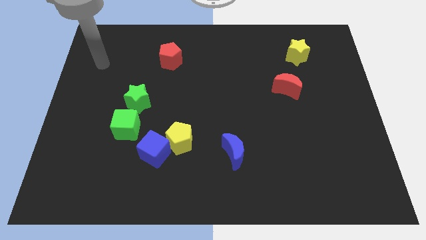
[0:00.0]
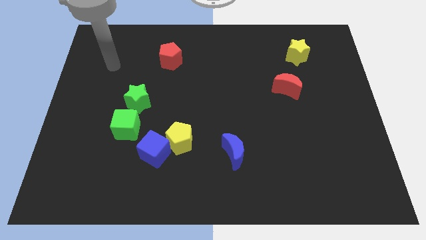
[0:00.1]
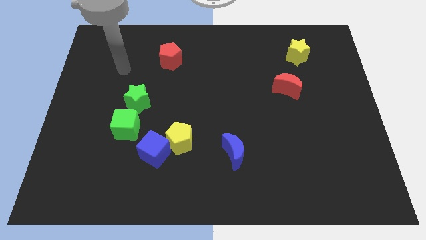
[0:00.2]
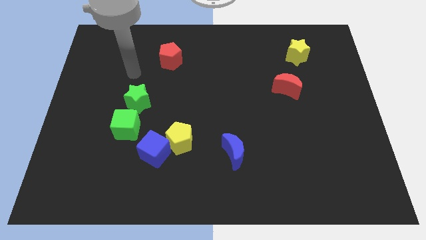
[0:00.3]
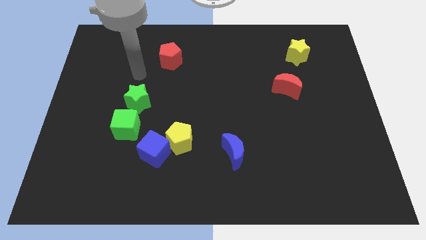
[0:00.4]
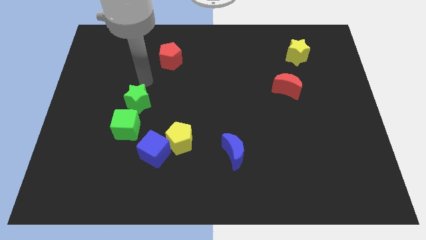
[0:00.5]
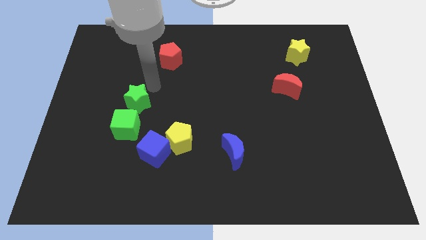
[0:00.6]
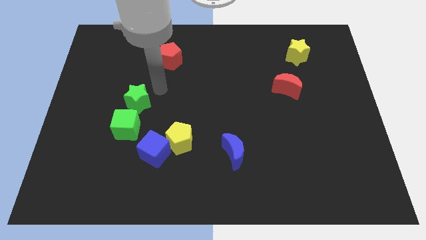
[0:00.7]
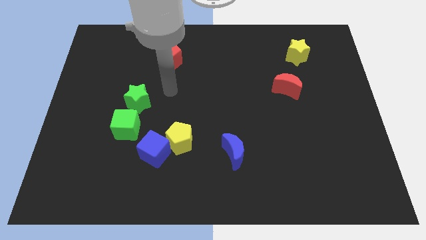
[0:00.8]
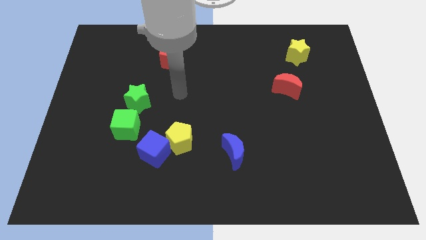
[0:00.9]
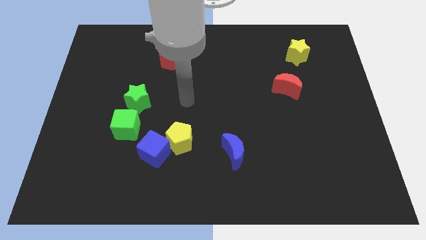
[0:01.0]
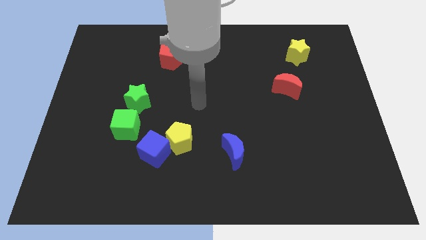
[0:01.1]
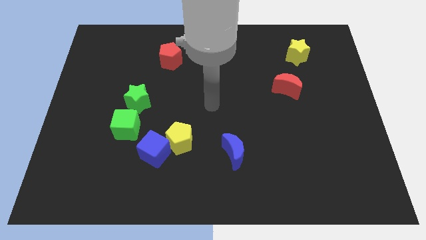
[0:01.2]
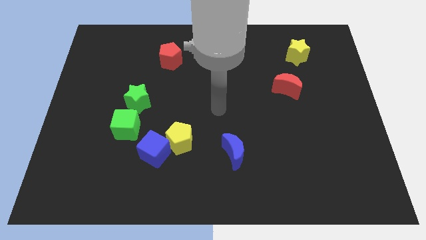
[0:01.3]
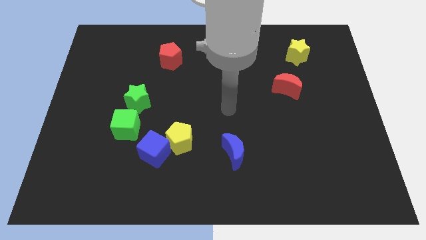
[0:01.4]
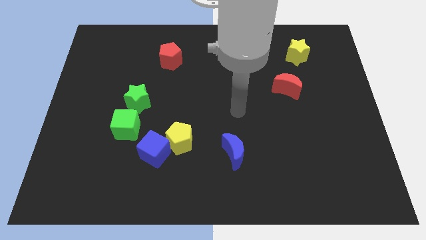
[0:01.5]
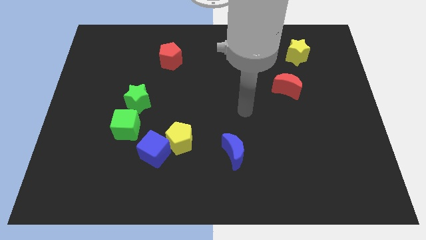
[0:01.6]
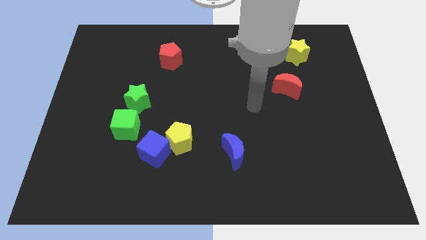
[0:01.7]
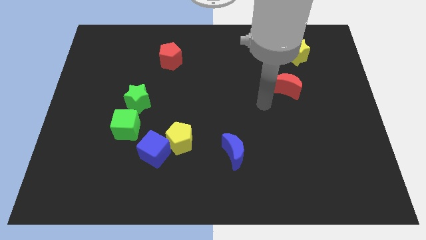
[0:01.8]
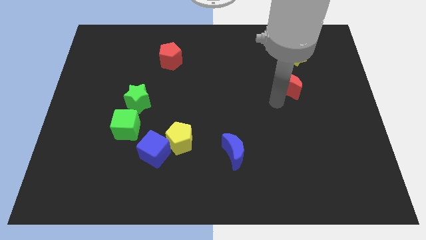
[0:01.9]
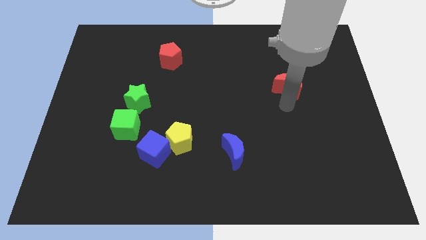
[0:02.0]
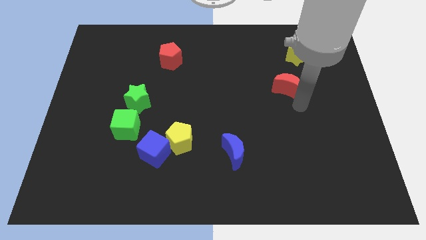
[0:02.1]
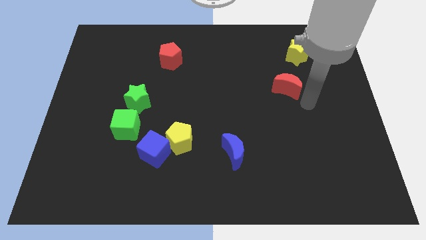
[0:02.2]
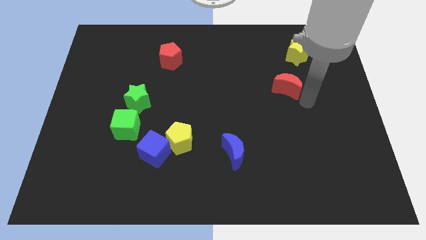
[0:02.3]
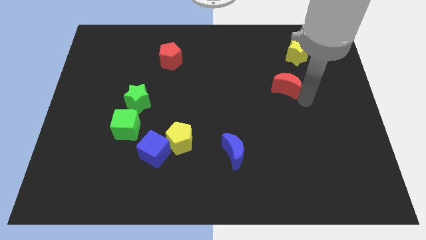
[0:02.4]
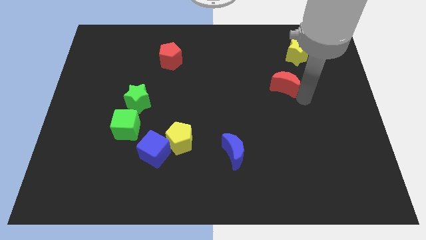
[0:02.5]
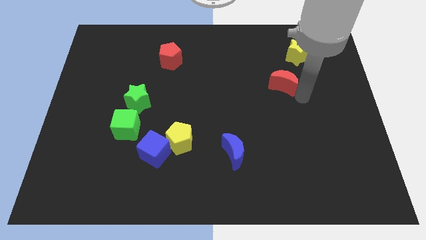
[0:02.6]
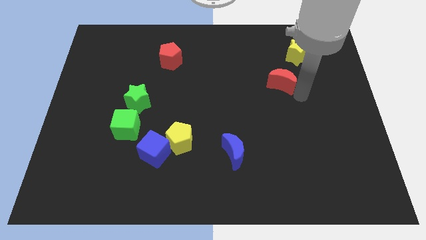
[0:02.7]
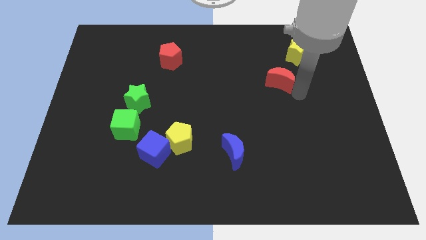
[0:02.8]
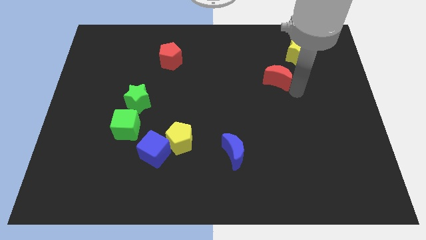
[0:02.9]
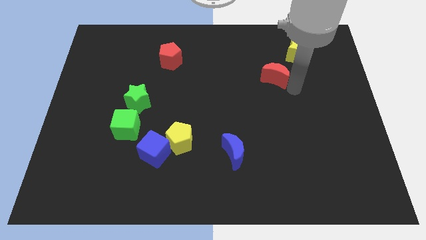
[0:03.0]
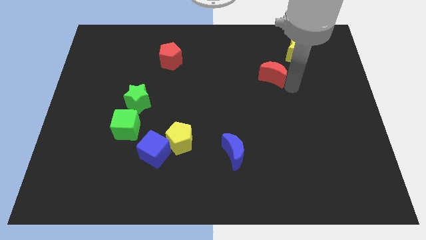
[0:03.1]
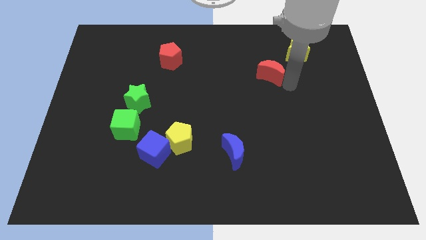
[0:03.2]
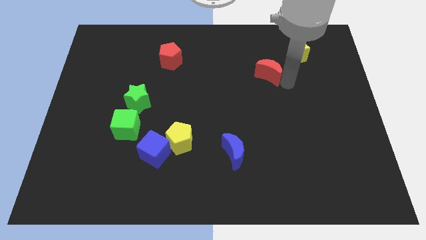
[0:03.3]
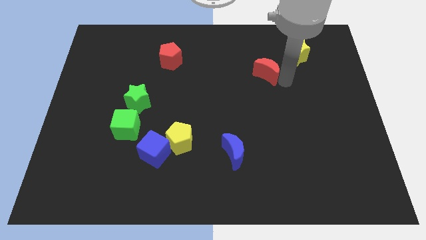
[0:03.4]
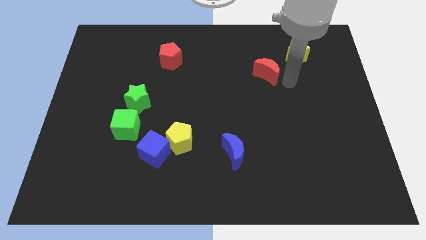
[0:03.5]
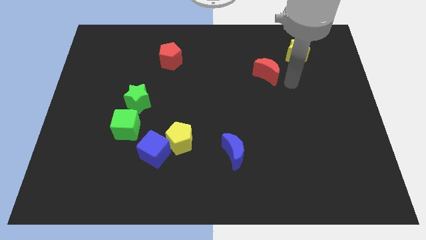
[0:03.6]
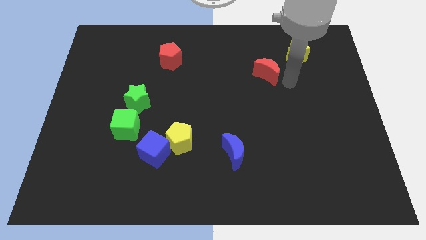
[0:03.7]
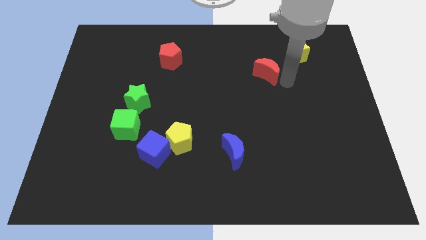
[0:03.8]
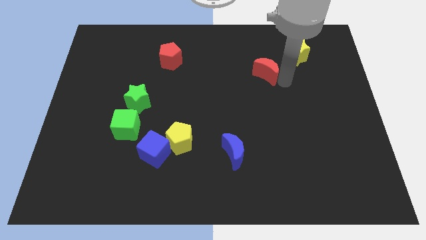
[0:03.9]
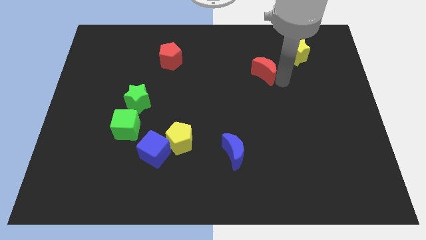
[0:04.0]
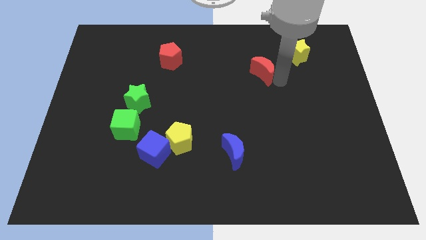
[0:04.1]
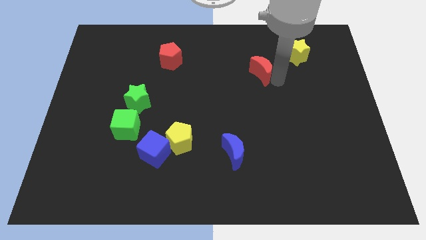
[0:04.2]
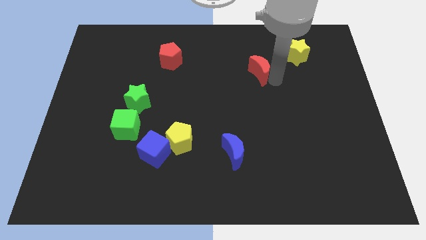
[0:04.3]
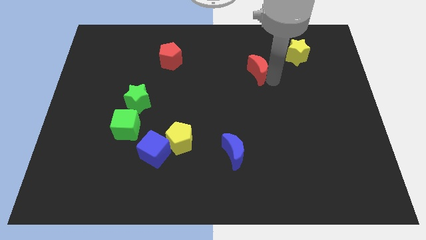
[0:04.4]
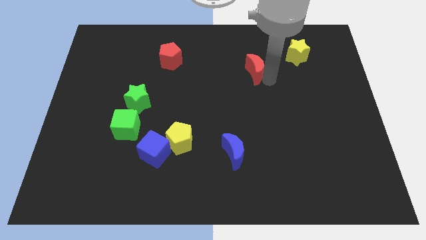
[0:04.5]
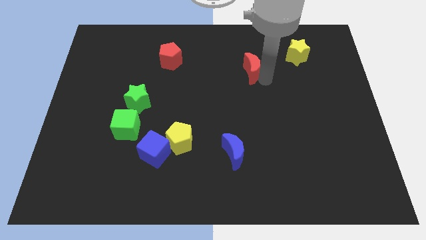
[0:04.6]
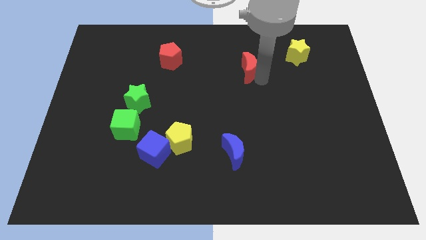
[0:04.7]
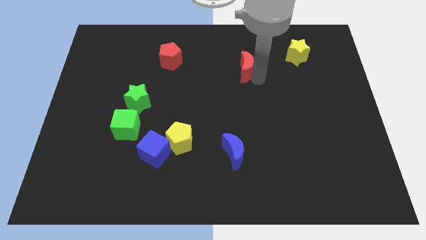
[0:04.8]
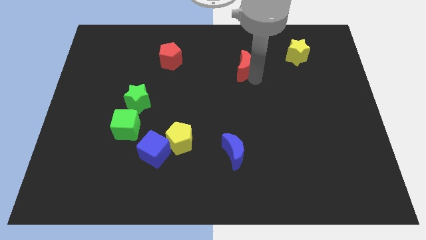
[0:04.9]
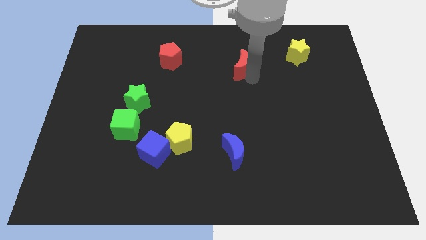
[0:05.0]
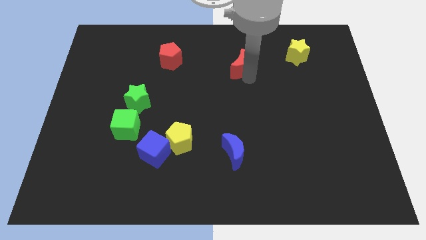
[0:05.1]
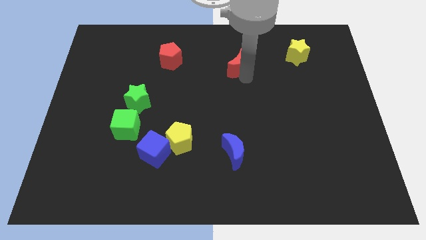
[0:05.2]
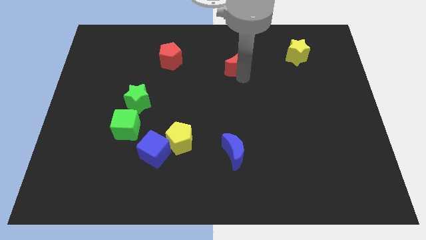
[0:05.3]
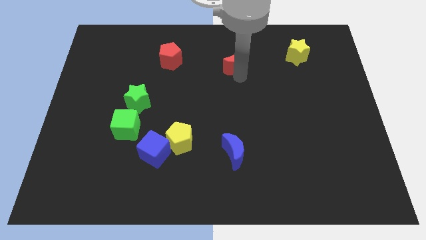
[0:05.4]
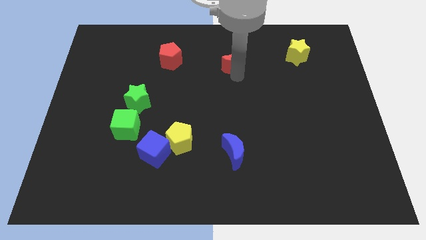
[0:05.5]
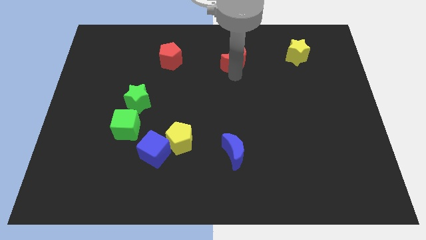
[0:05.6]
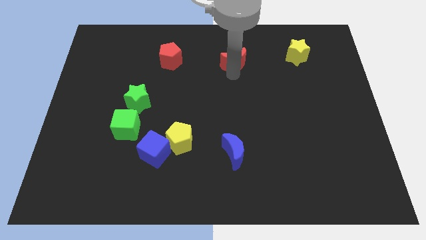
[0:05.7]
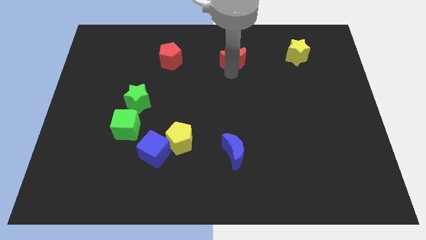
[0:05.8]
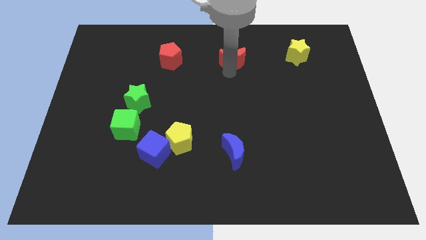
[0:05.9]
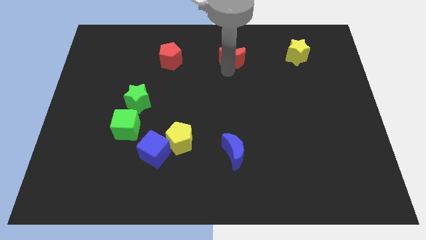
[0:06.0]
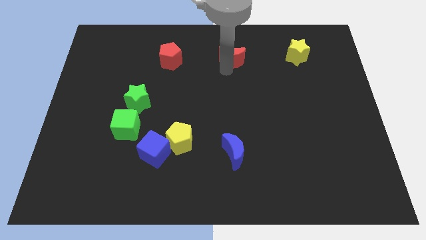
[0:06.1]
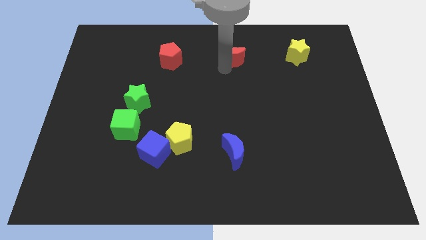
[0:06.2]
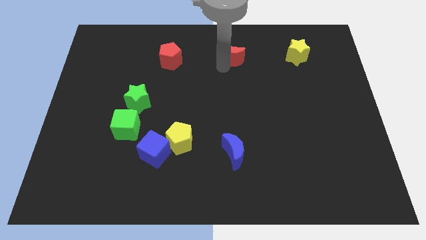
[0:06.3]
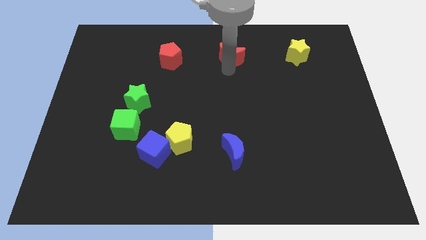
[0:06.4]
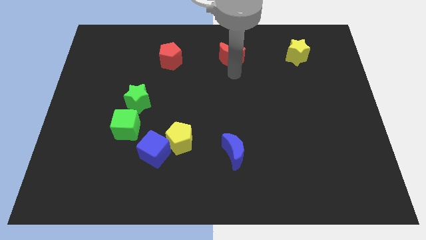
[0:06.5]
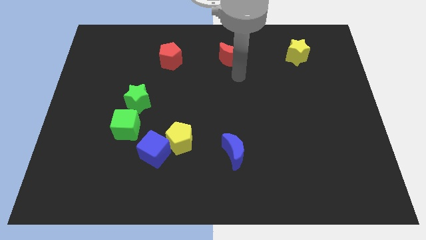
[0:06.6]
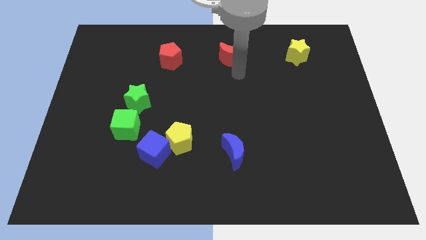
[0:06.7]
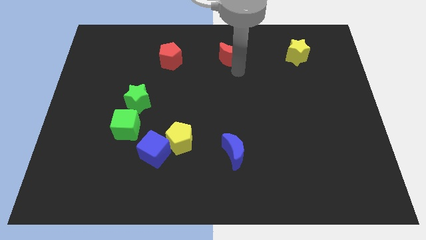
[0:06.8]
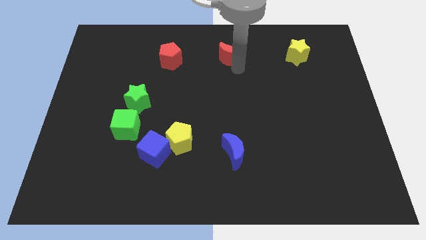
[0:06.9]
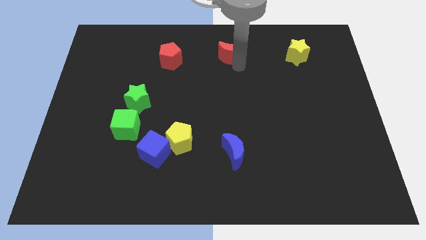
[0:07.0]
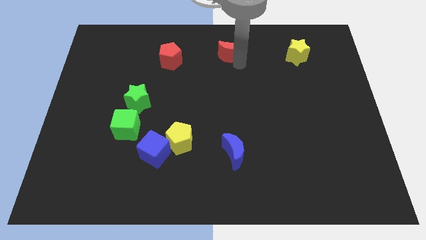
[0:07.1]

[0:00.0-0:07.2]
put the red moon to the top

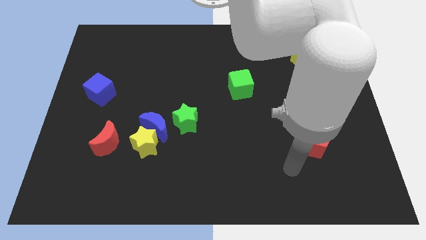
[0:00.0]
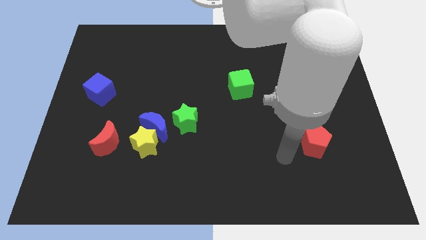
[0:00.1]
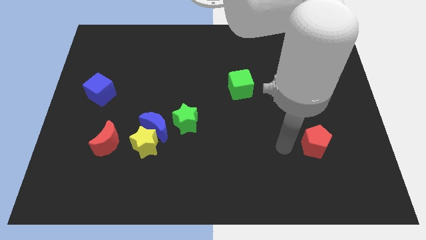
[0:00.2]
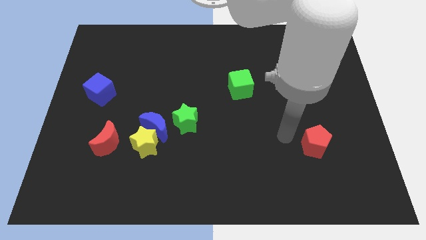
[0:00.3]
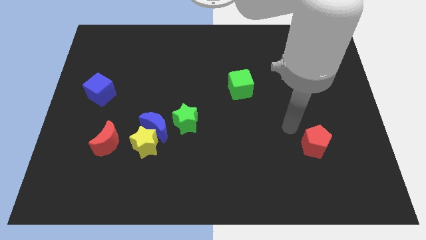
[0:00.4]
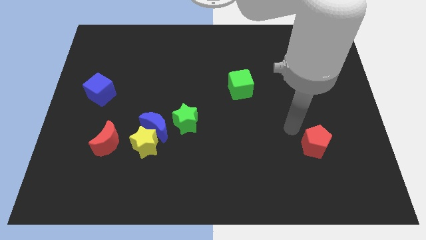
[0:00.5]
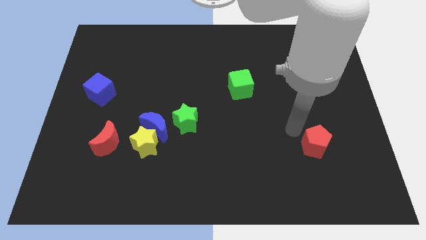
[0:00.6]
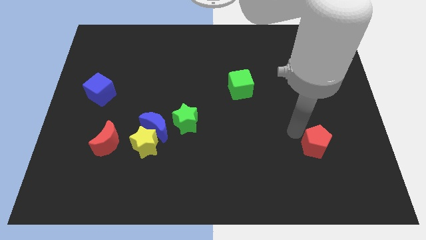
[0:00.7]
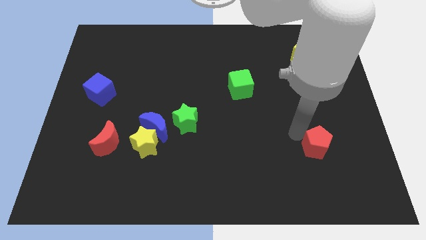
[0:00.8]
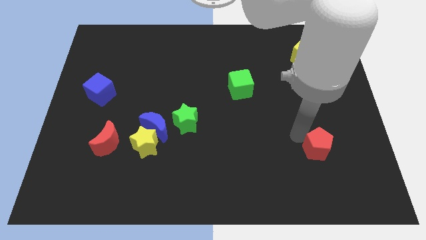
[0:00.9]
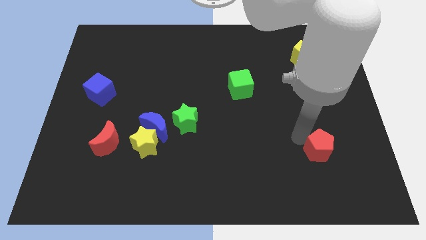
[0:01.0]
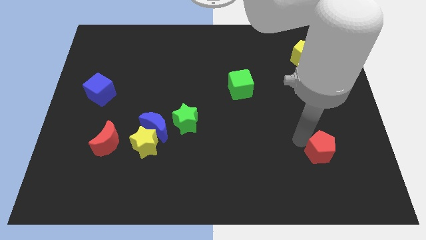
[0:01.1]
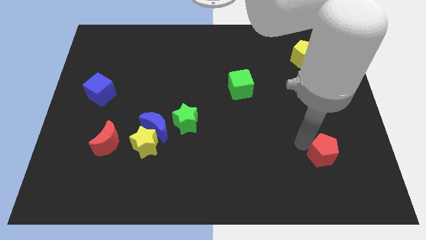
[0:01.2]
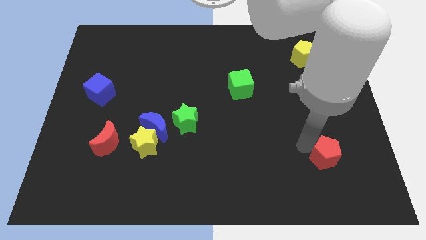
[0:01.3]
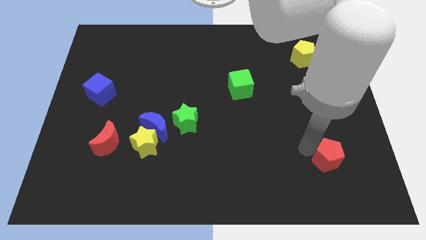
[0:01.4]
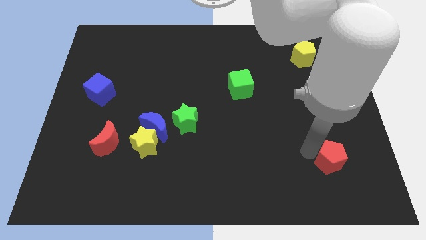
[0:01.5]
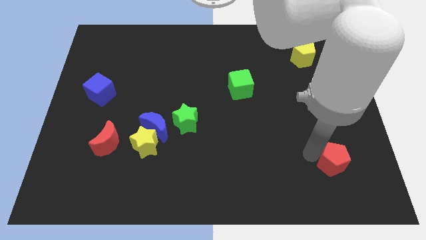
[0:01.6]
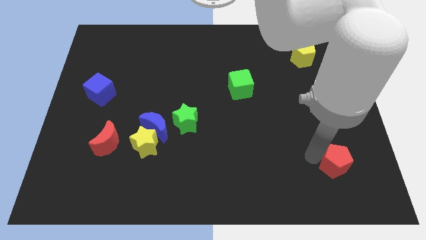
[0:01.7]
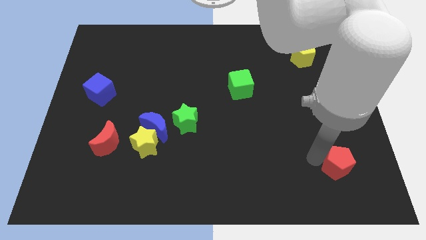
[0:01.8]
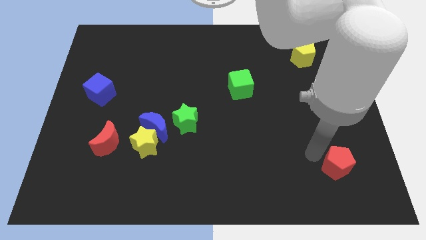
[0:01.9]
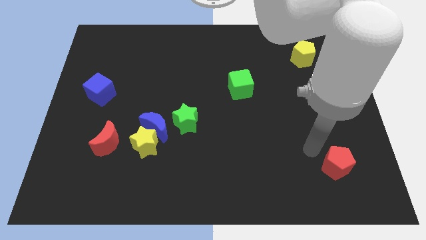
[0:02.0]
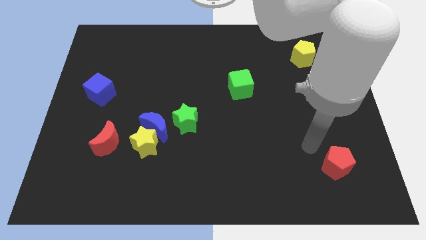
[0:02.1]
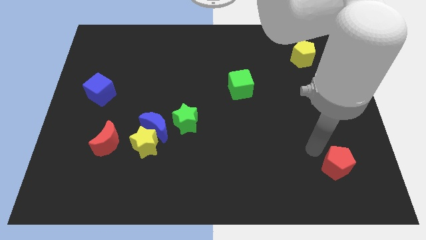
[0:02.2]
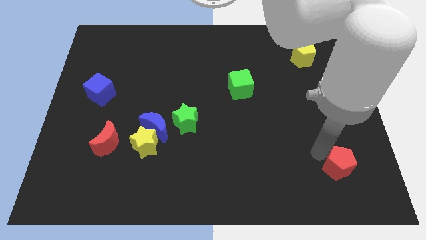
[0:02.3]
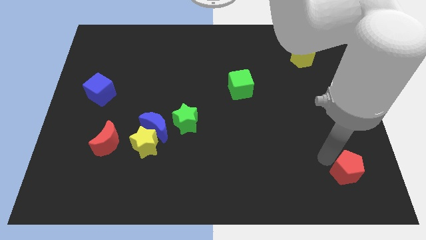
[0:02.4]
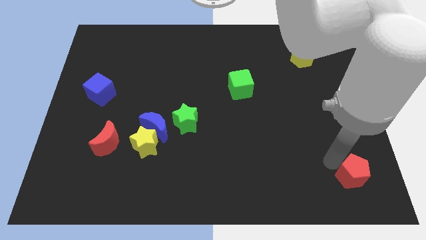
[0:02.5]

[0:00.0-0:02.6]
move the red pentagon to the bottom right corner
